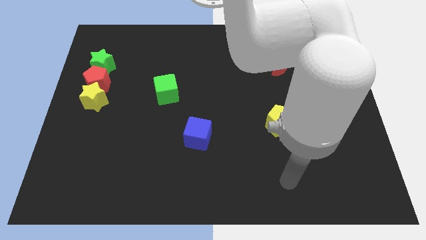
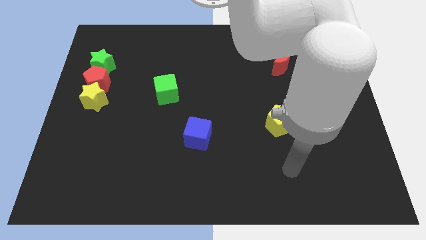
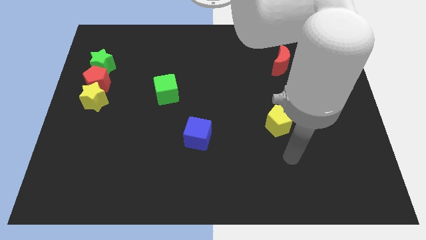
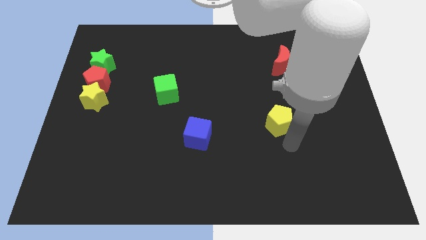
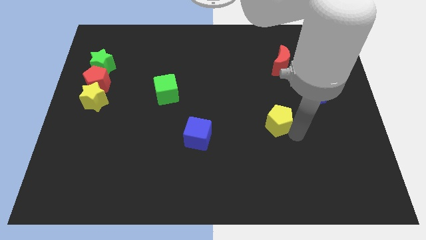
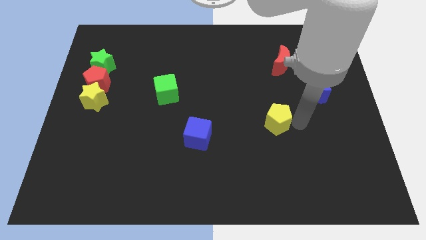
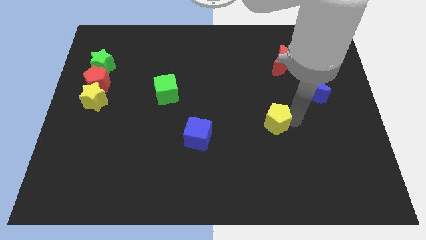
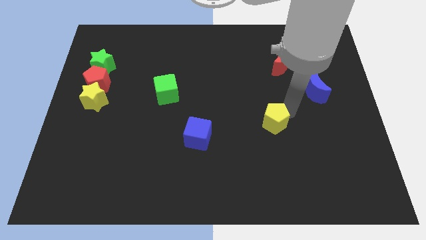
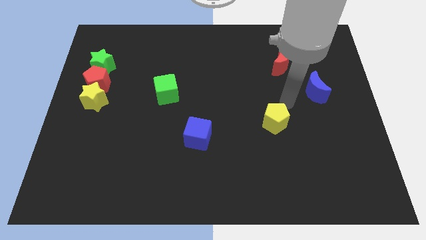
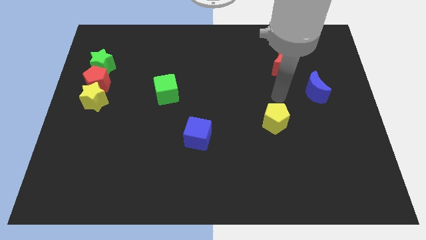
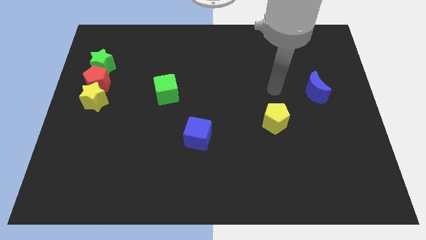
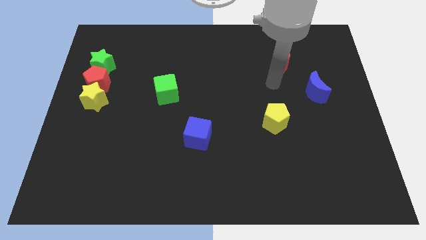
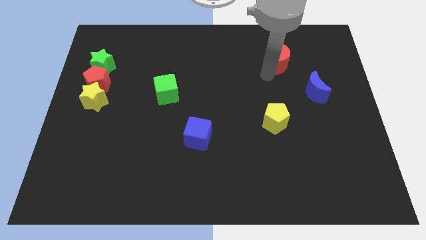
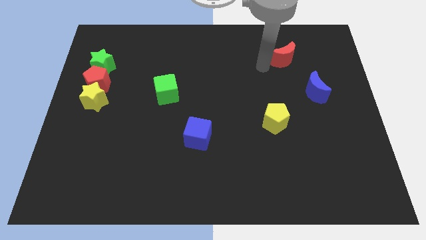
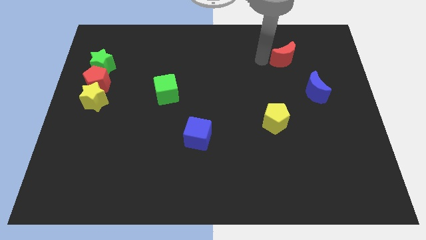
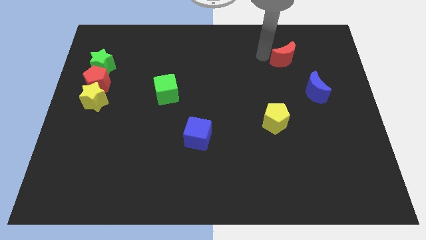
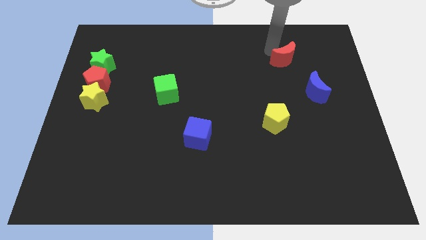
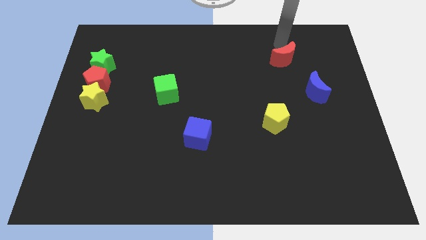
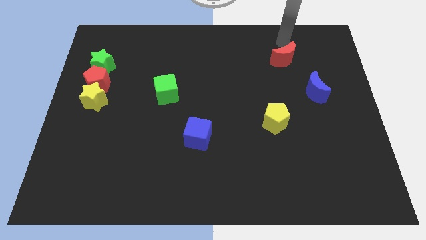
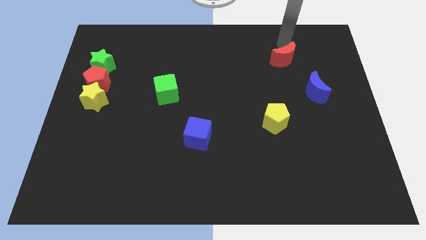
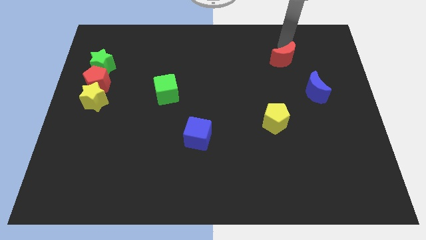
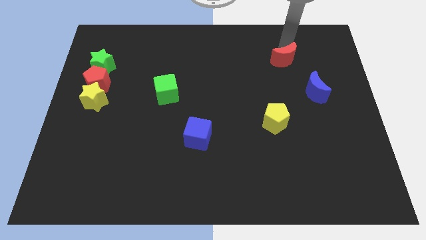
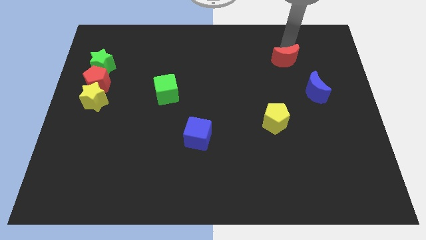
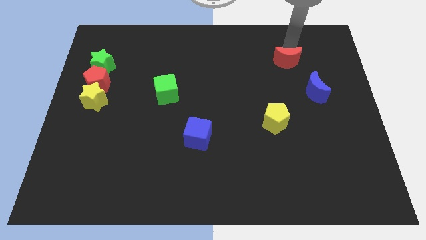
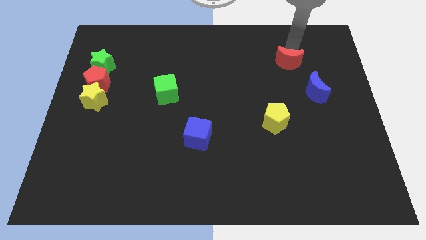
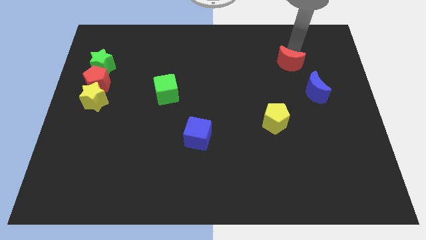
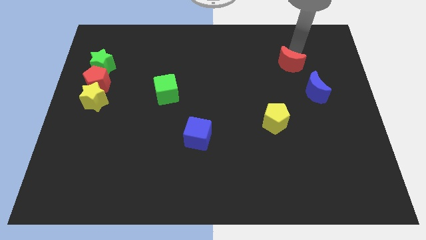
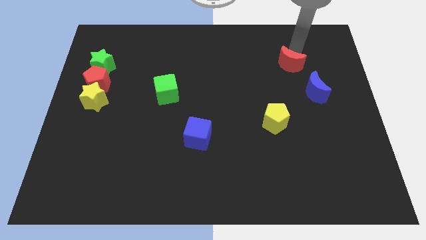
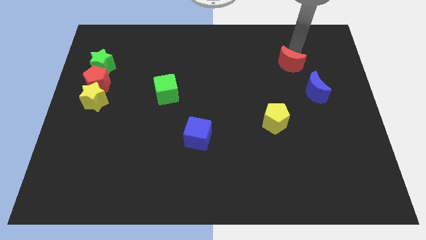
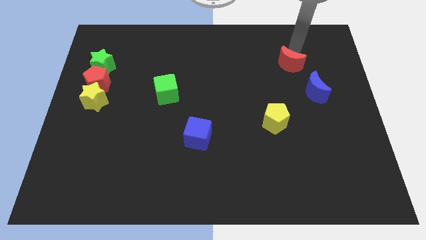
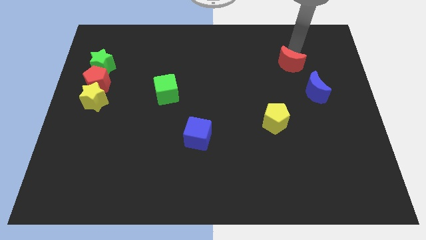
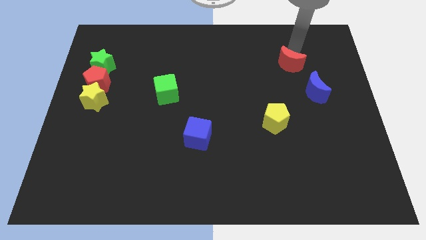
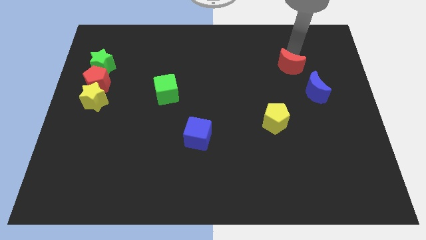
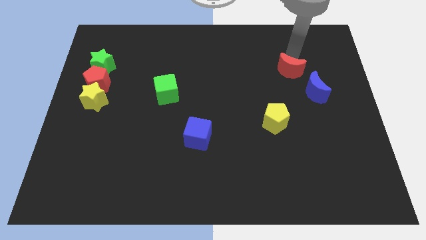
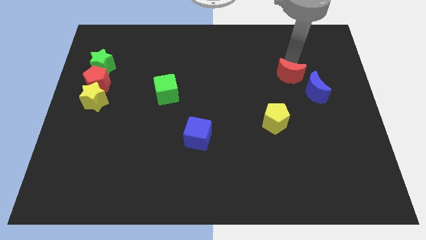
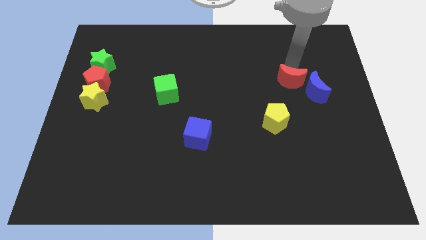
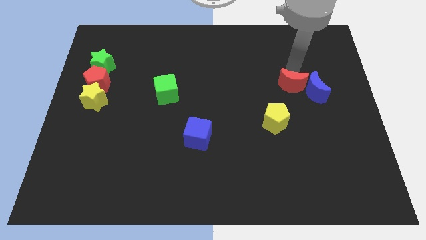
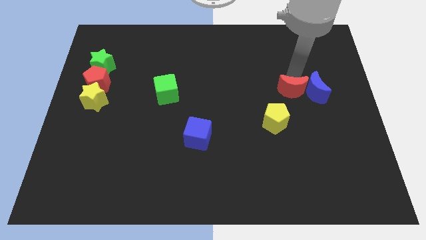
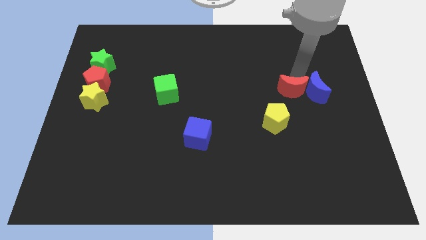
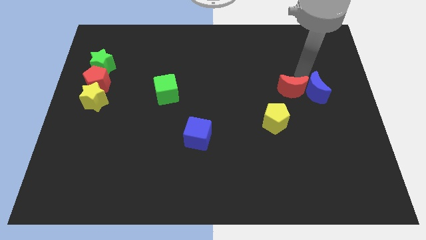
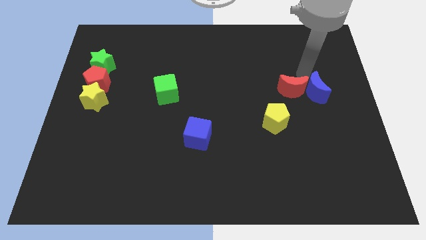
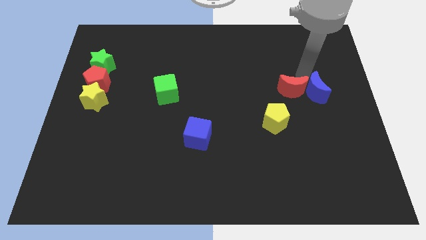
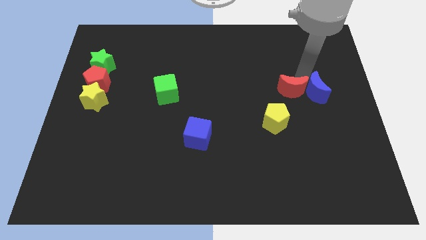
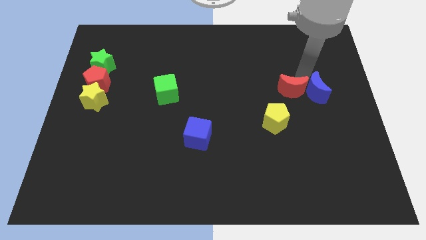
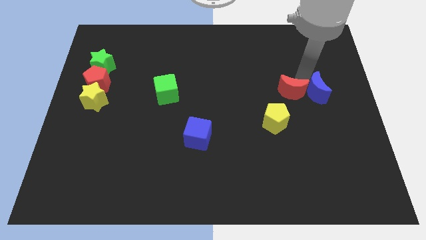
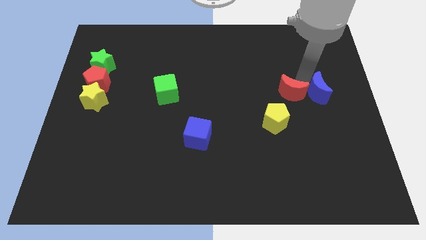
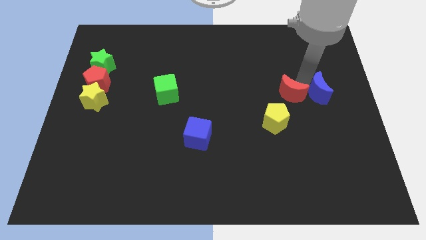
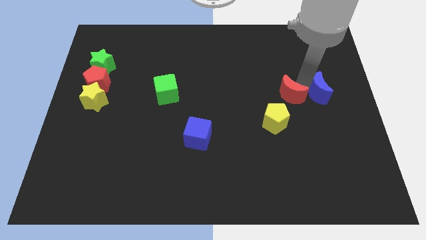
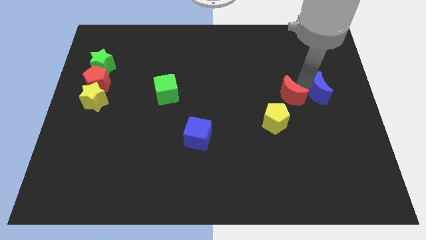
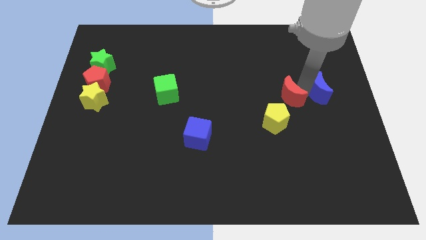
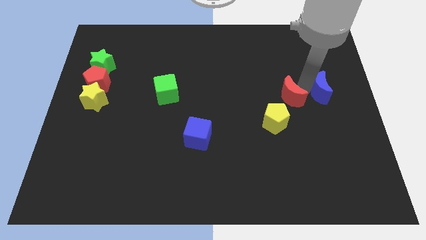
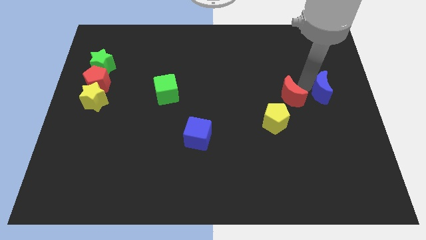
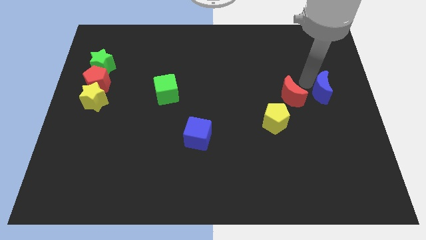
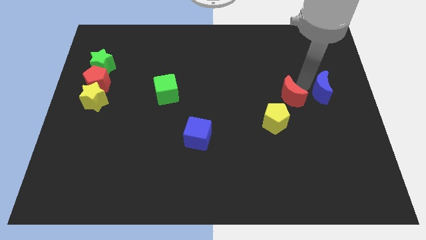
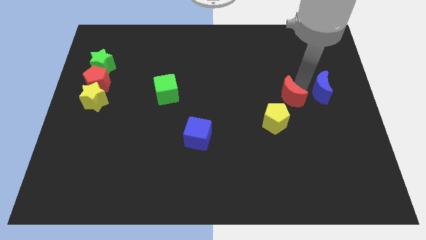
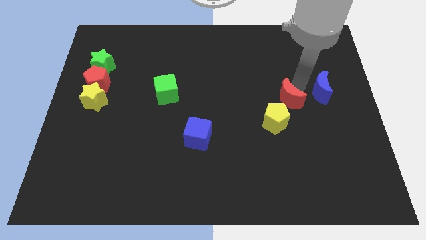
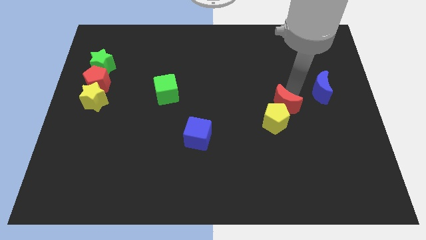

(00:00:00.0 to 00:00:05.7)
put the red moon to the yellow pentagon

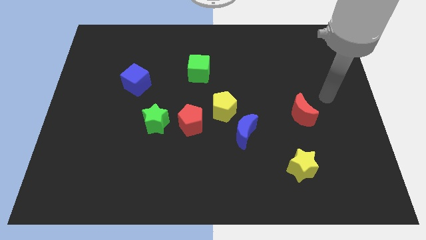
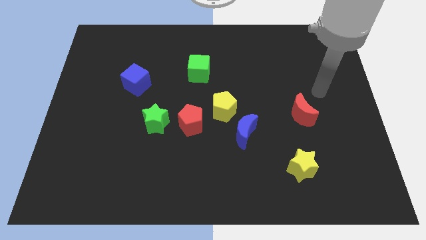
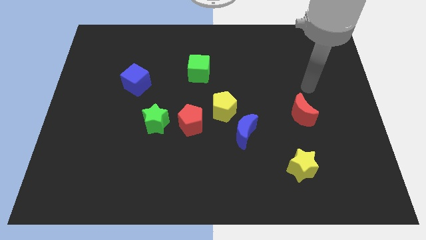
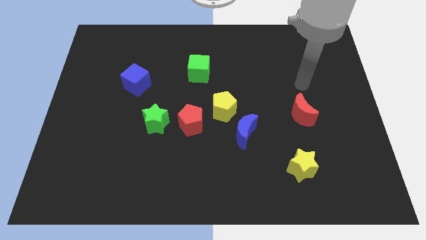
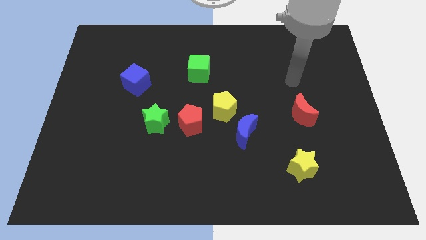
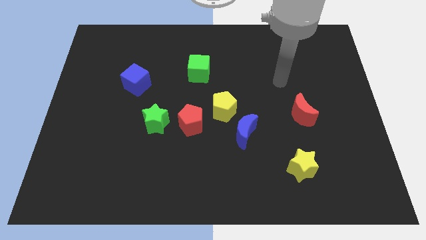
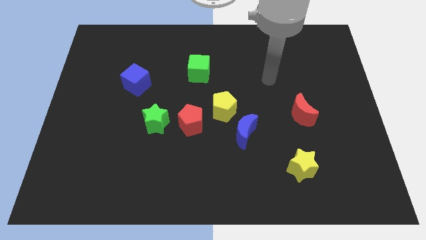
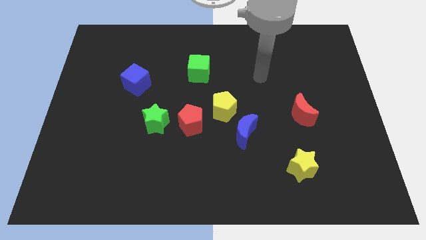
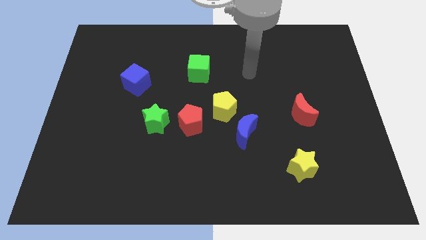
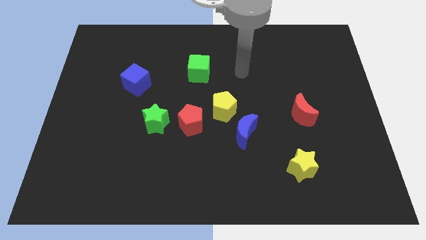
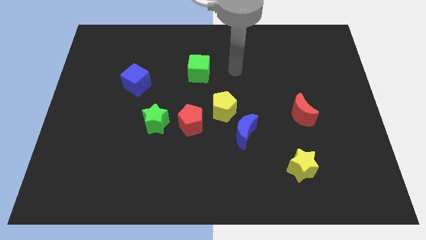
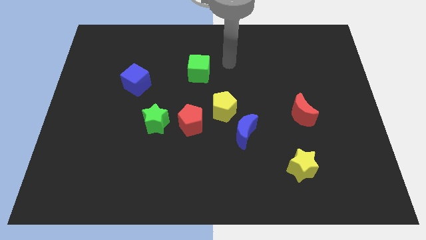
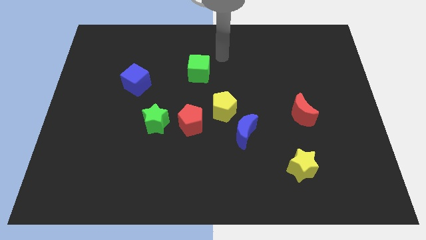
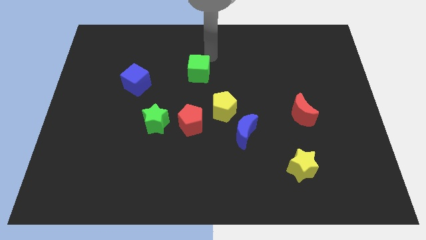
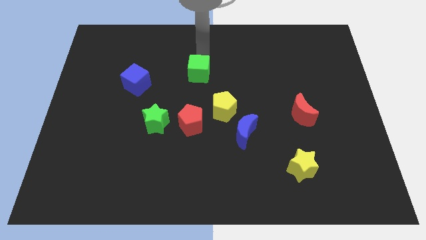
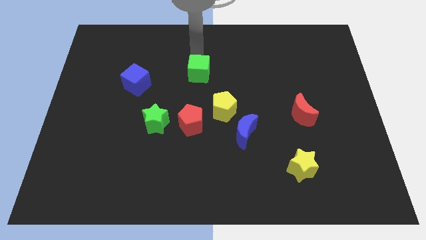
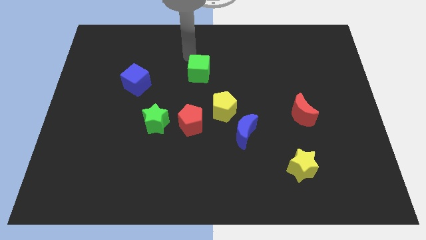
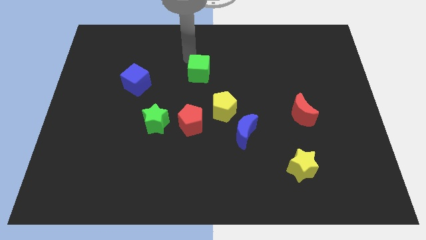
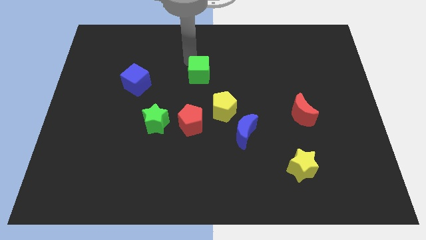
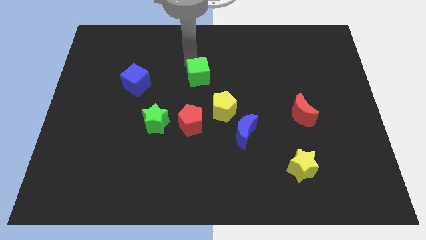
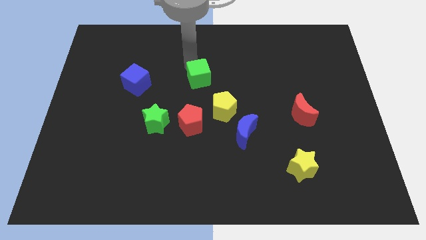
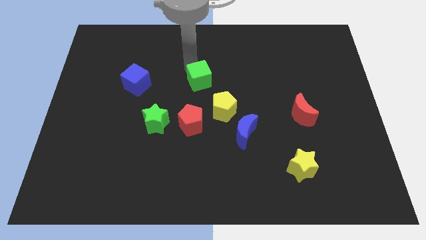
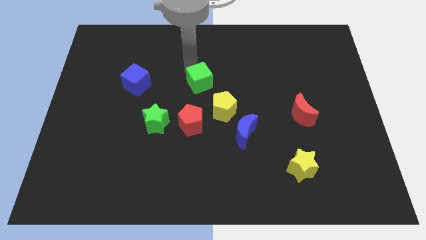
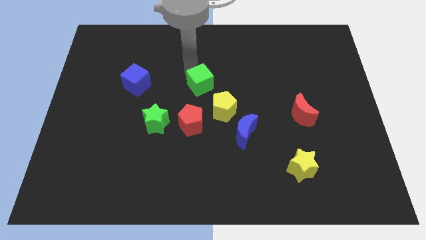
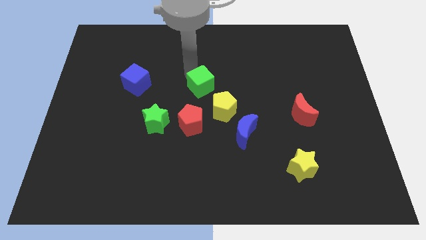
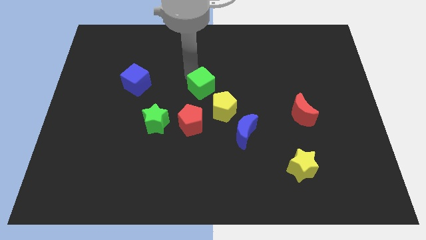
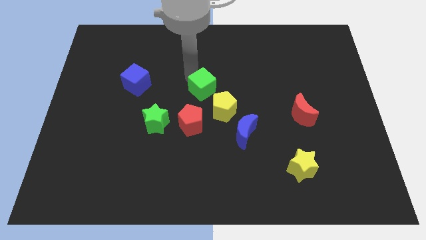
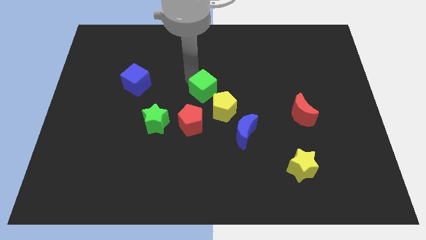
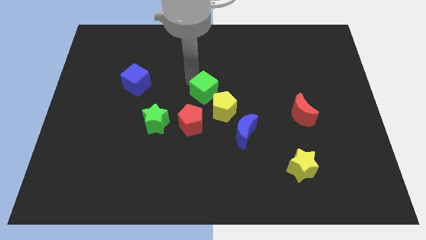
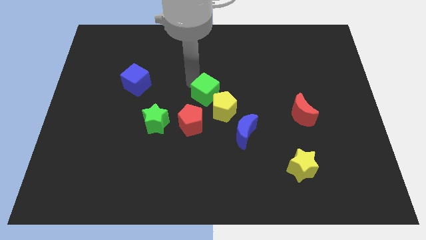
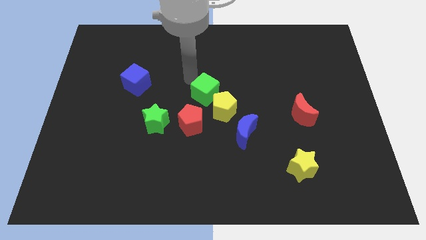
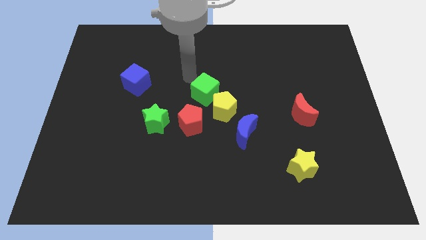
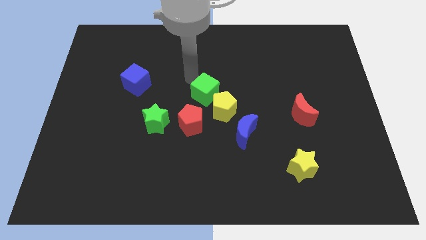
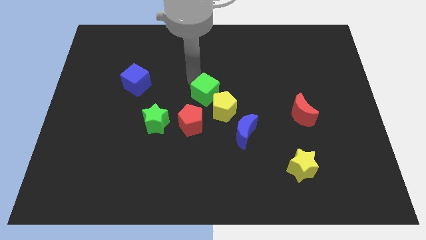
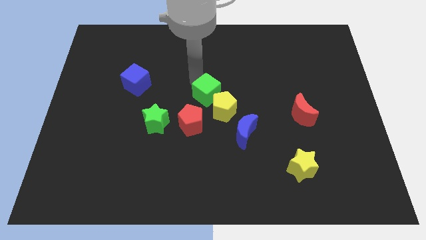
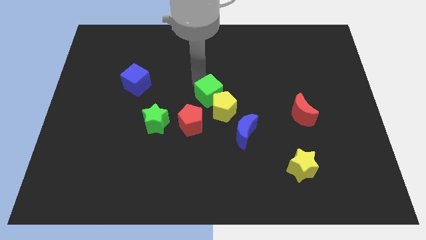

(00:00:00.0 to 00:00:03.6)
put the green cube to the yellow pentagon
